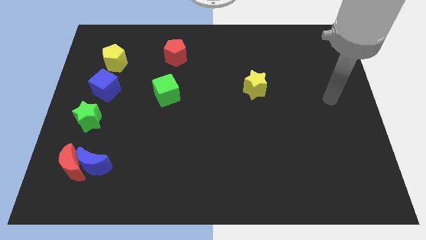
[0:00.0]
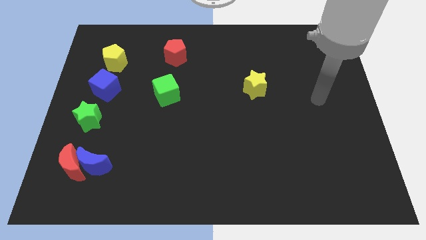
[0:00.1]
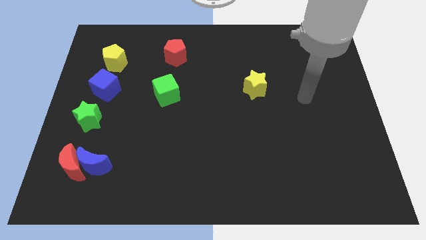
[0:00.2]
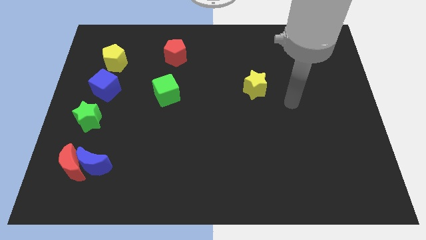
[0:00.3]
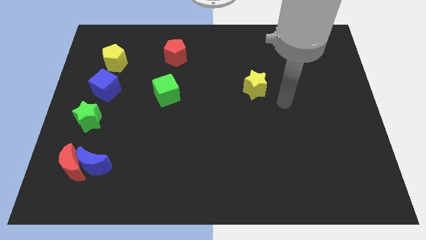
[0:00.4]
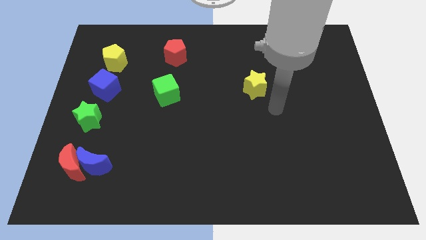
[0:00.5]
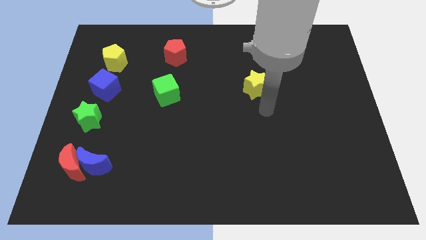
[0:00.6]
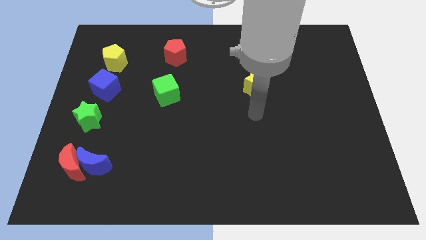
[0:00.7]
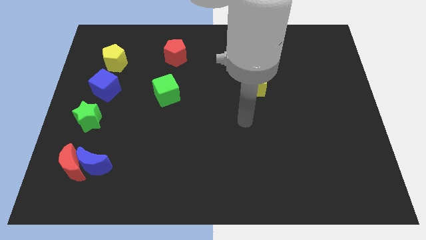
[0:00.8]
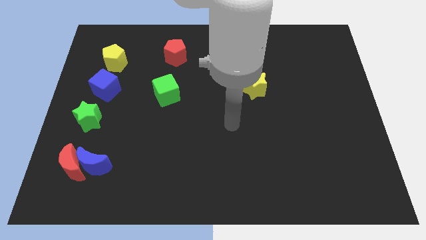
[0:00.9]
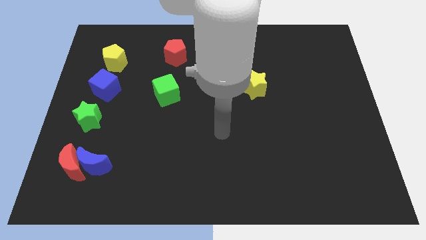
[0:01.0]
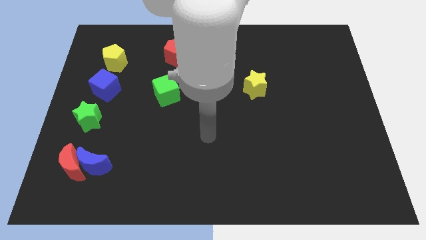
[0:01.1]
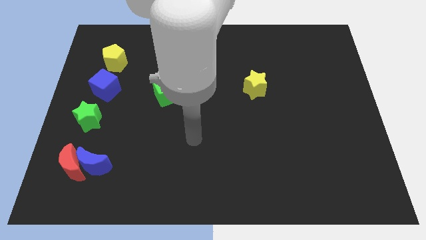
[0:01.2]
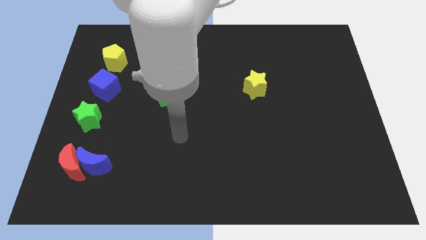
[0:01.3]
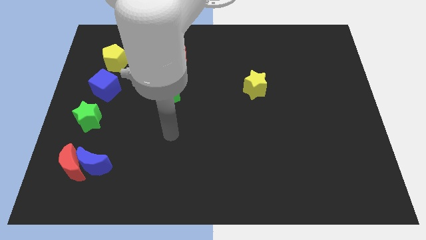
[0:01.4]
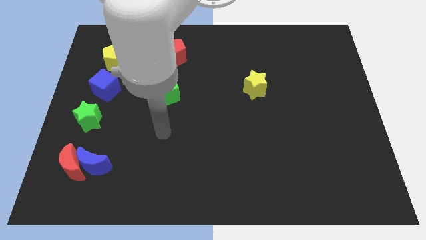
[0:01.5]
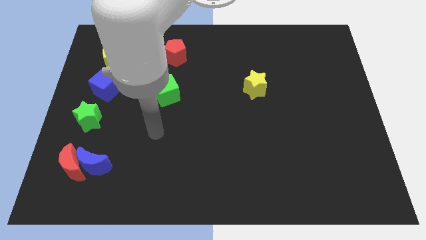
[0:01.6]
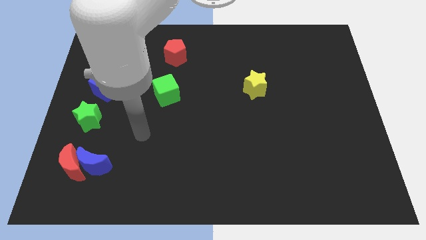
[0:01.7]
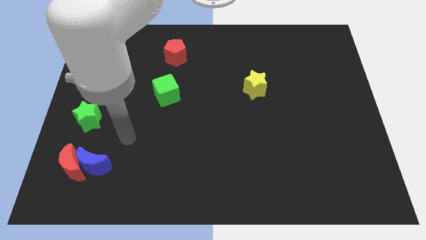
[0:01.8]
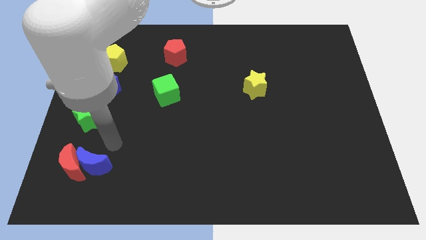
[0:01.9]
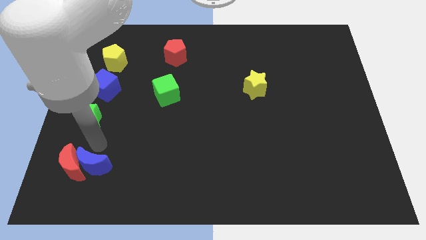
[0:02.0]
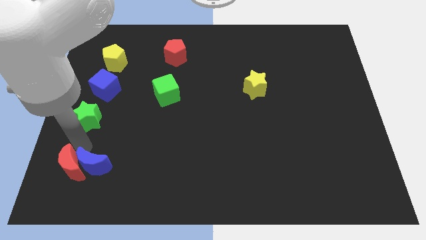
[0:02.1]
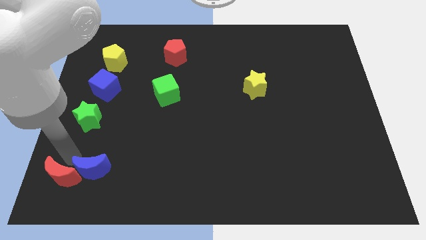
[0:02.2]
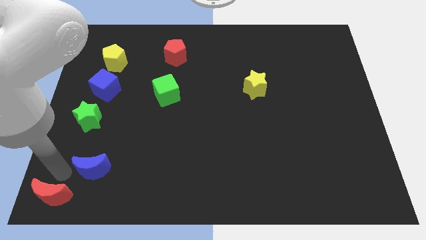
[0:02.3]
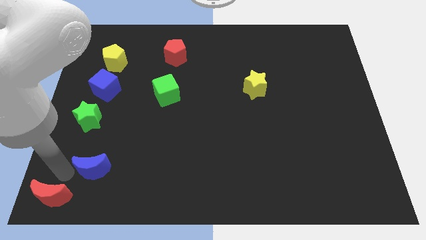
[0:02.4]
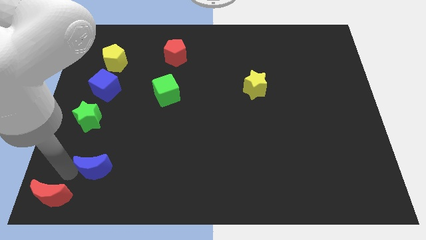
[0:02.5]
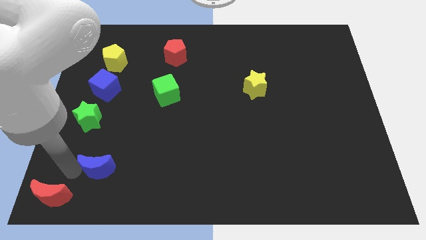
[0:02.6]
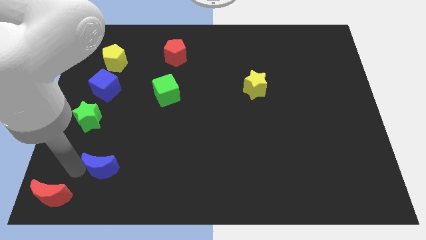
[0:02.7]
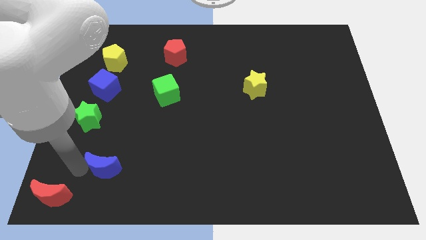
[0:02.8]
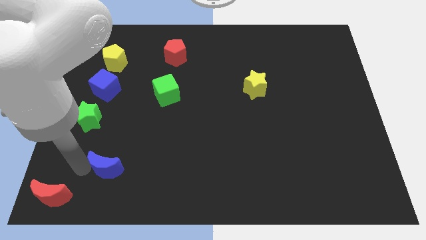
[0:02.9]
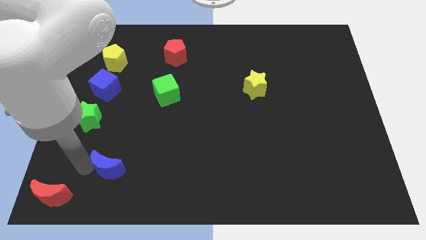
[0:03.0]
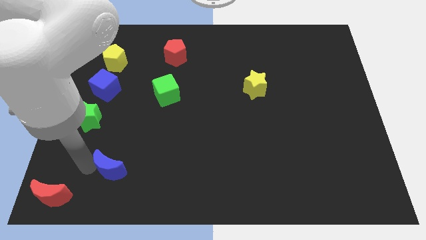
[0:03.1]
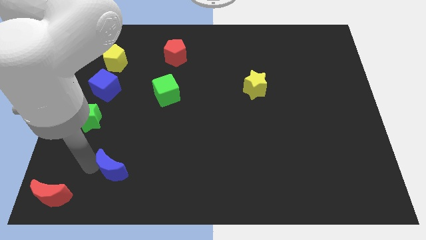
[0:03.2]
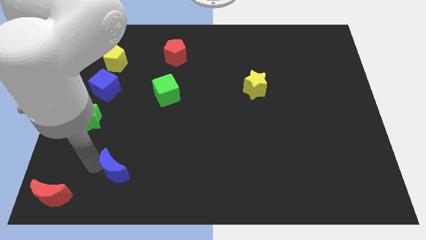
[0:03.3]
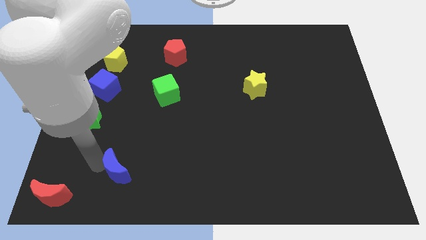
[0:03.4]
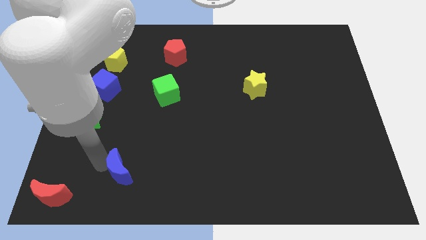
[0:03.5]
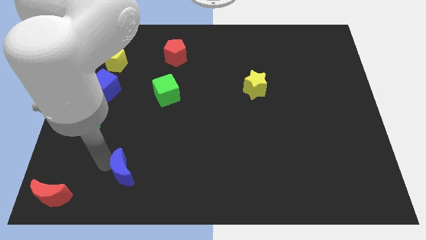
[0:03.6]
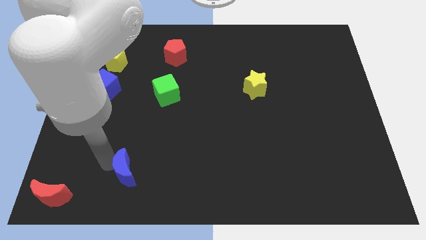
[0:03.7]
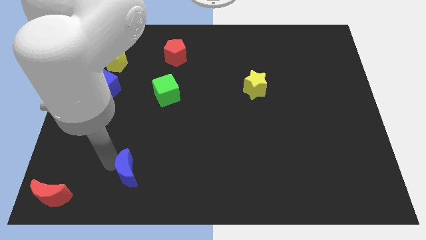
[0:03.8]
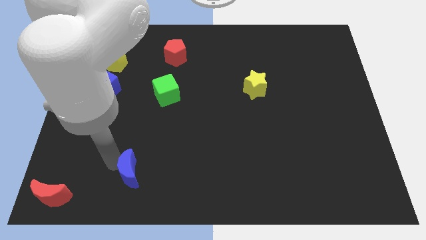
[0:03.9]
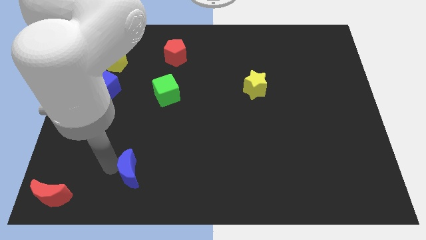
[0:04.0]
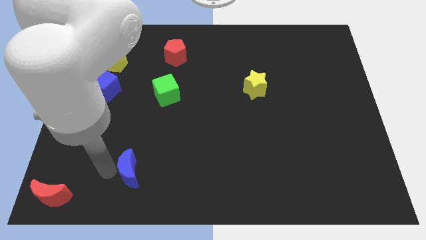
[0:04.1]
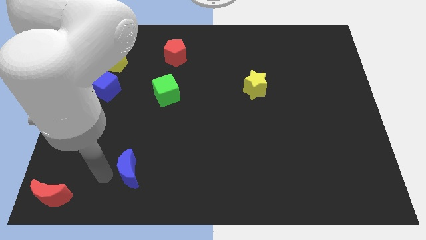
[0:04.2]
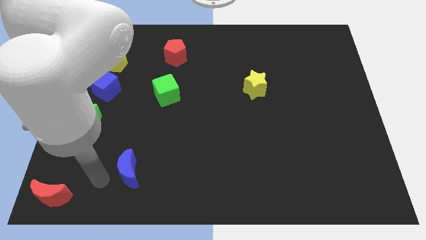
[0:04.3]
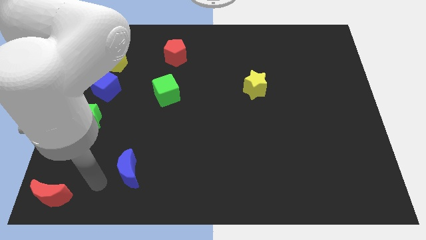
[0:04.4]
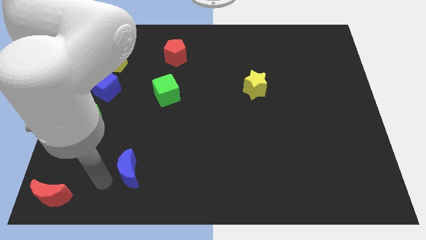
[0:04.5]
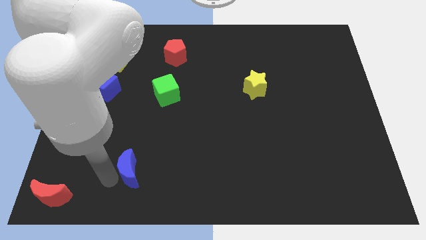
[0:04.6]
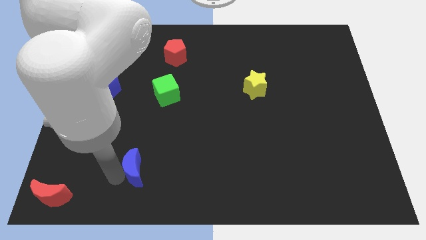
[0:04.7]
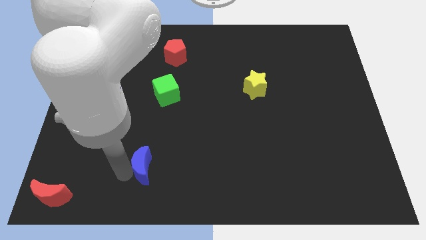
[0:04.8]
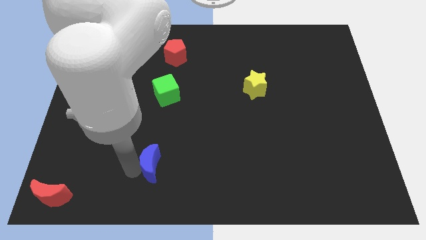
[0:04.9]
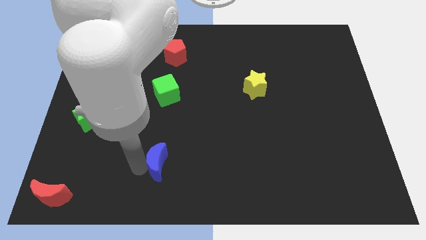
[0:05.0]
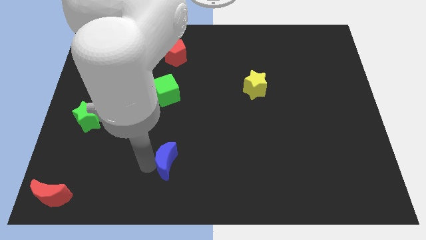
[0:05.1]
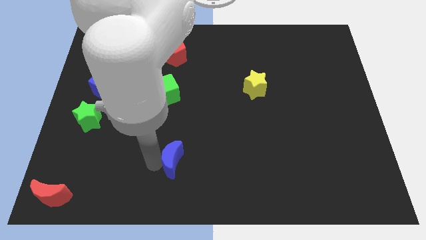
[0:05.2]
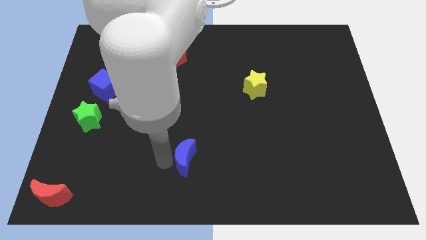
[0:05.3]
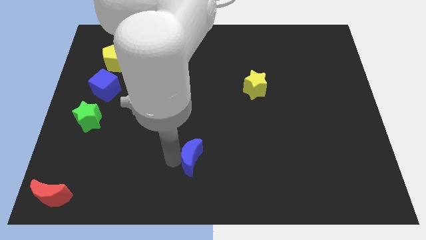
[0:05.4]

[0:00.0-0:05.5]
move the blue moon to the right

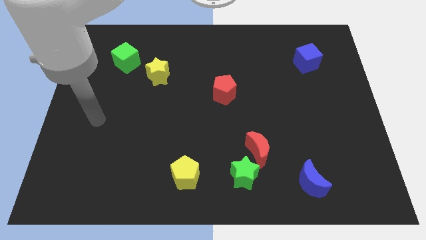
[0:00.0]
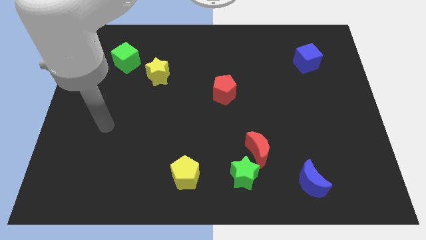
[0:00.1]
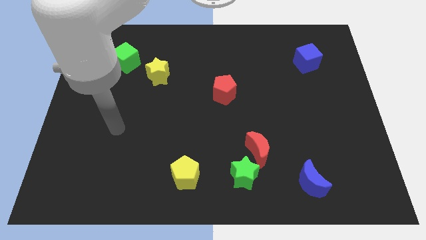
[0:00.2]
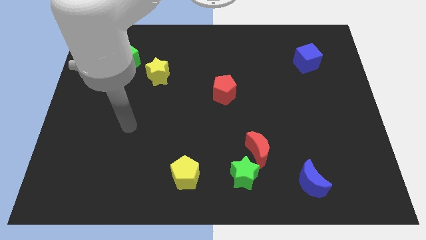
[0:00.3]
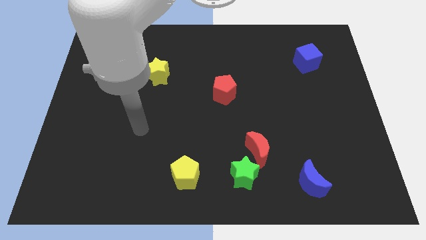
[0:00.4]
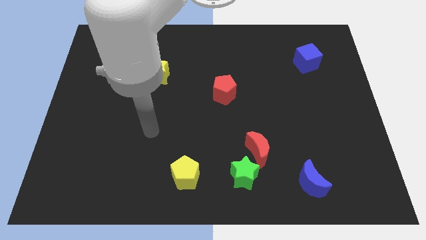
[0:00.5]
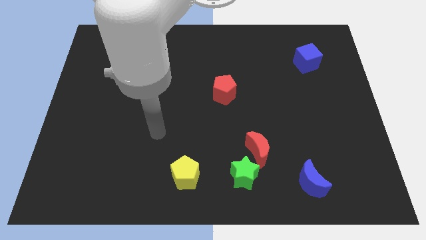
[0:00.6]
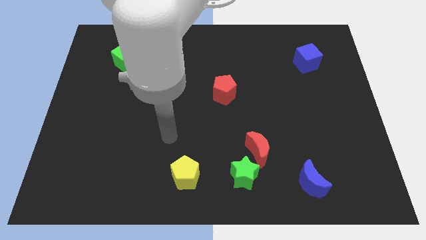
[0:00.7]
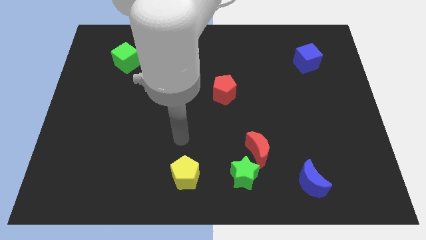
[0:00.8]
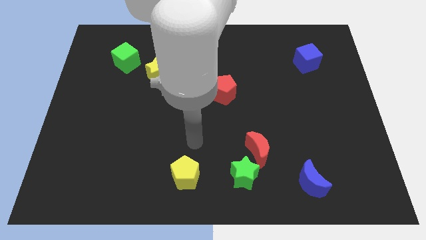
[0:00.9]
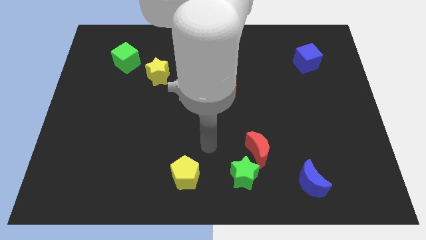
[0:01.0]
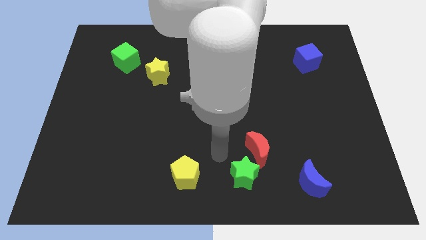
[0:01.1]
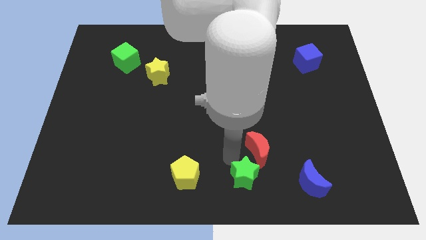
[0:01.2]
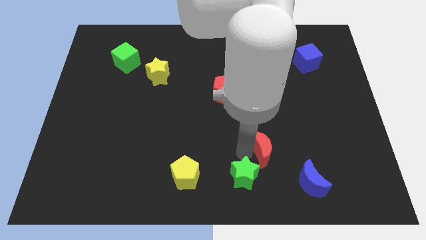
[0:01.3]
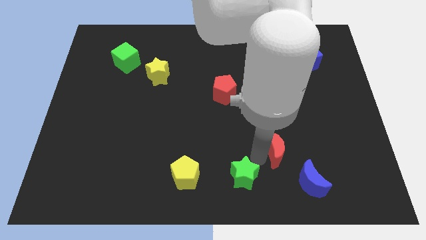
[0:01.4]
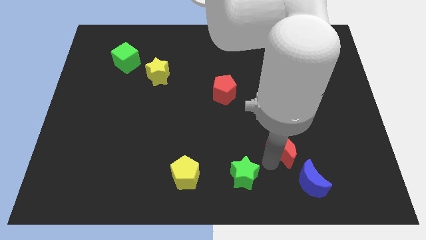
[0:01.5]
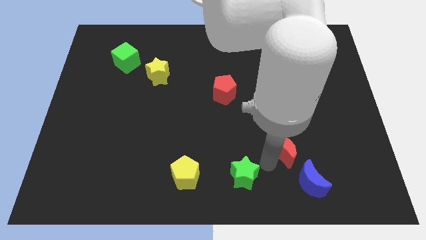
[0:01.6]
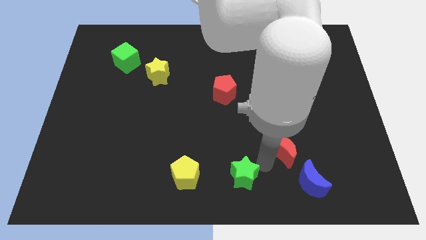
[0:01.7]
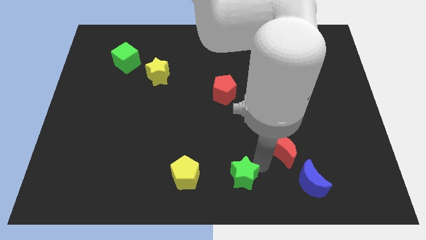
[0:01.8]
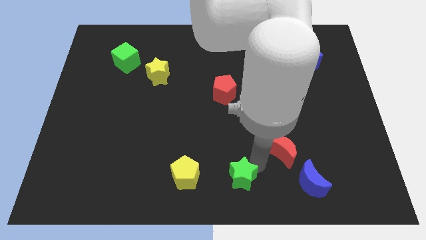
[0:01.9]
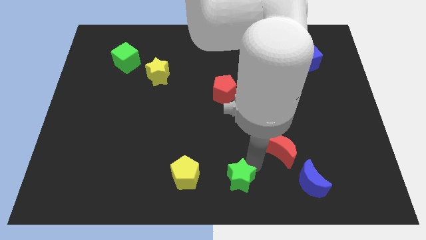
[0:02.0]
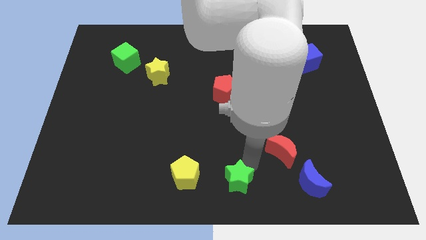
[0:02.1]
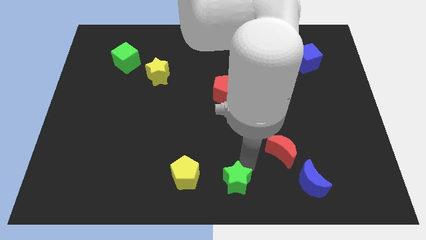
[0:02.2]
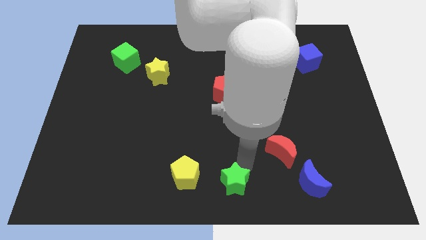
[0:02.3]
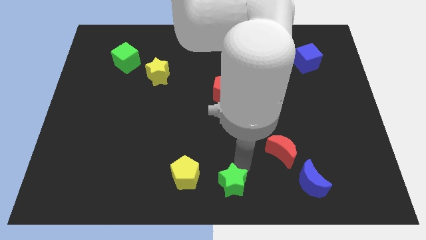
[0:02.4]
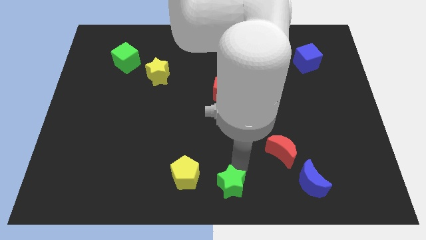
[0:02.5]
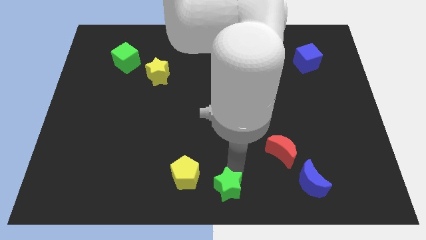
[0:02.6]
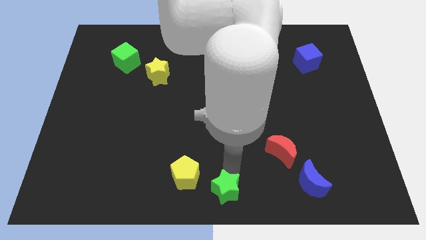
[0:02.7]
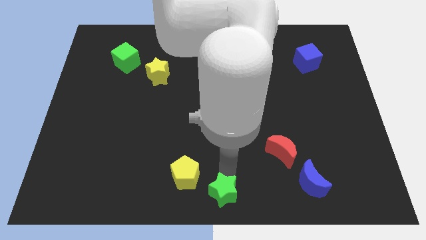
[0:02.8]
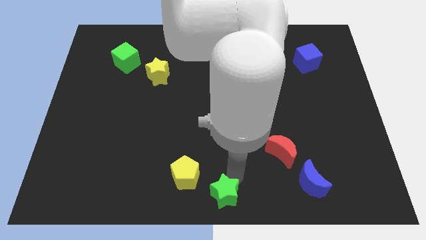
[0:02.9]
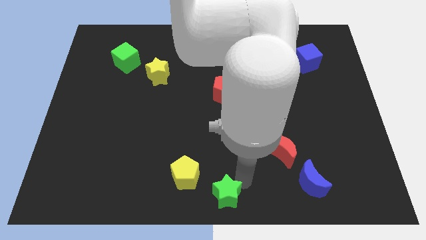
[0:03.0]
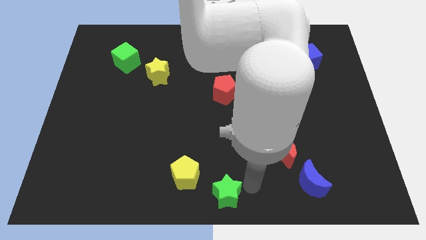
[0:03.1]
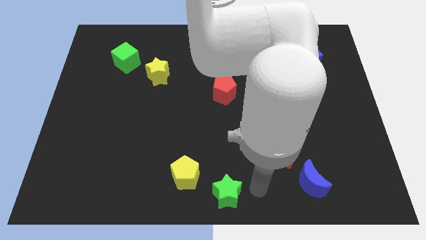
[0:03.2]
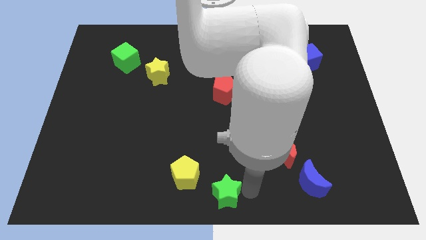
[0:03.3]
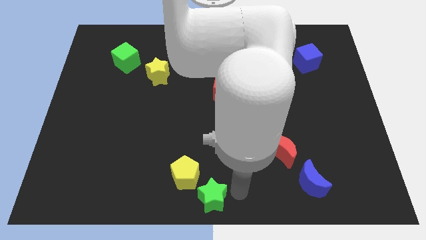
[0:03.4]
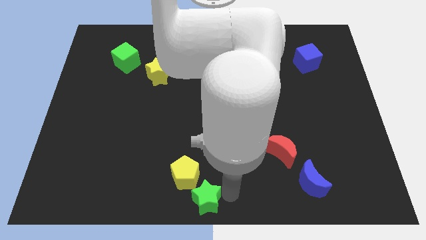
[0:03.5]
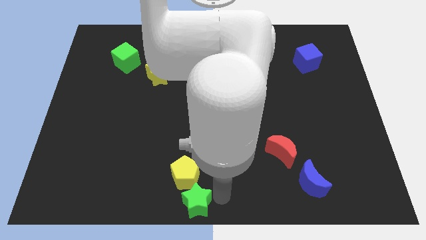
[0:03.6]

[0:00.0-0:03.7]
move the green star a little to the left
